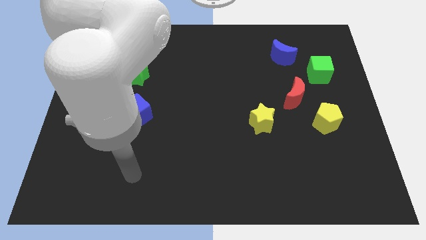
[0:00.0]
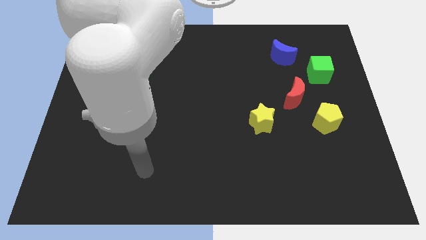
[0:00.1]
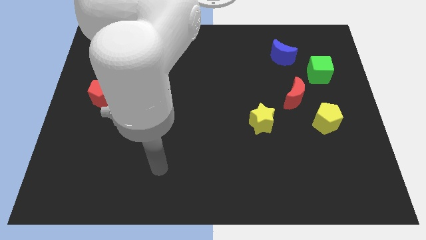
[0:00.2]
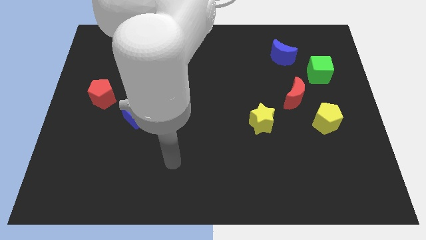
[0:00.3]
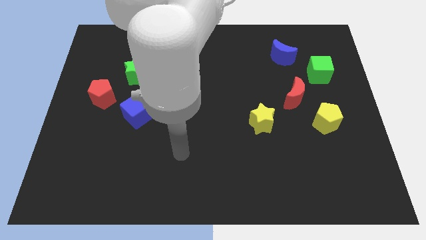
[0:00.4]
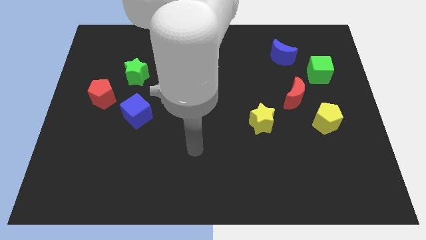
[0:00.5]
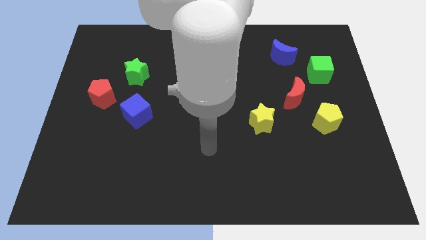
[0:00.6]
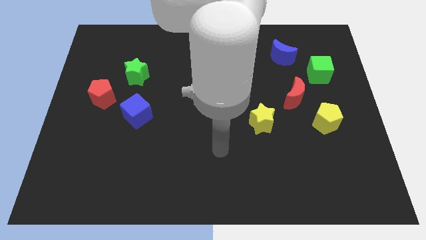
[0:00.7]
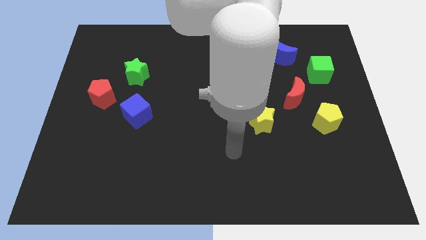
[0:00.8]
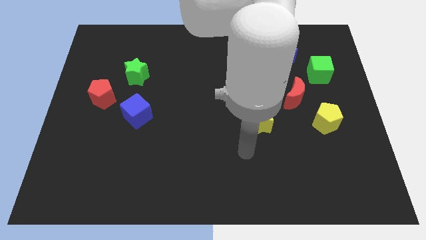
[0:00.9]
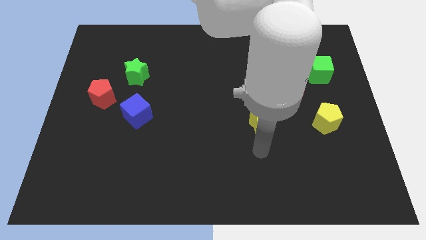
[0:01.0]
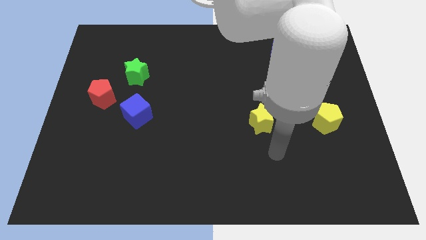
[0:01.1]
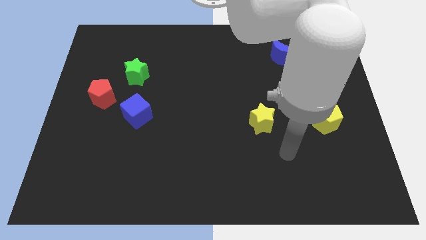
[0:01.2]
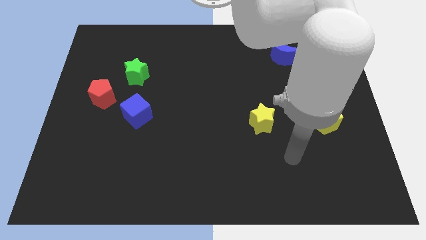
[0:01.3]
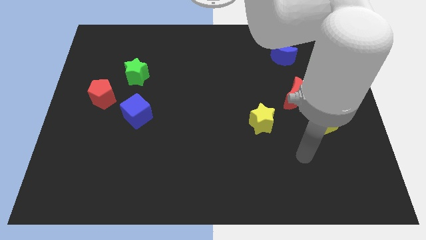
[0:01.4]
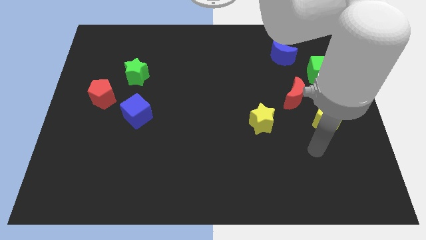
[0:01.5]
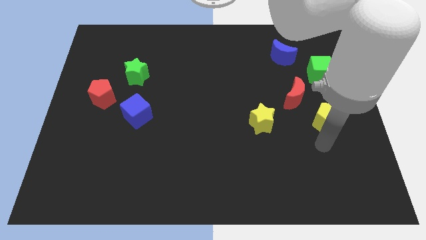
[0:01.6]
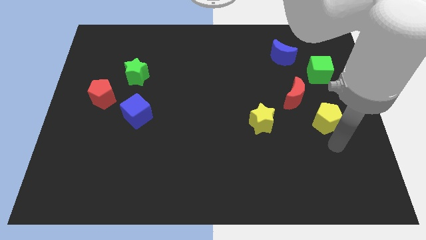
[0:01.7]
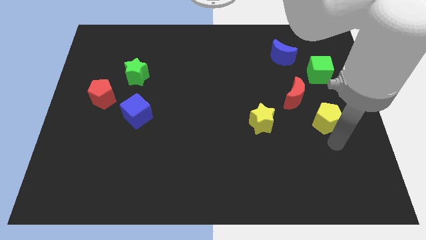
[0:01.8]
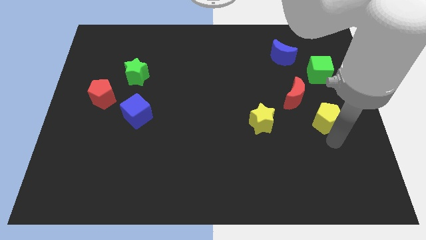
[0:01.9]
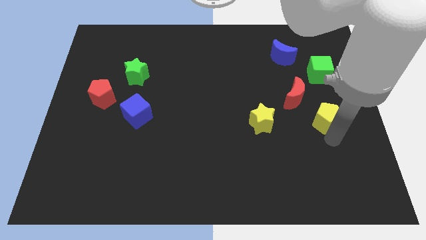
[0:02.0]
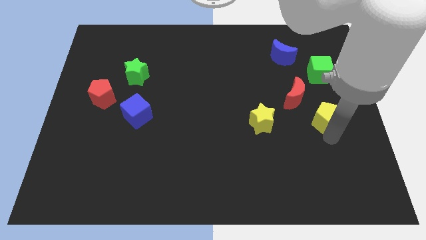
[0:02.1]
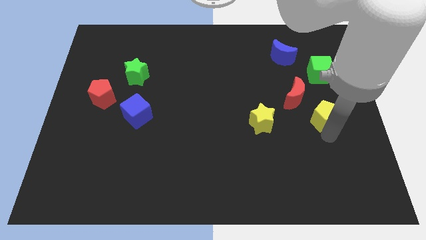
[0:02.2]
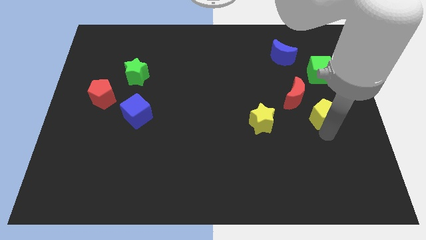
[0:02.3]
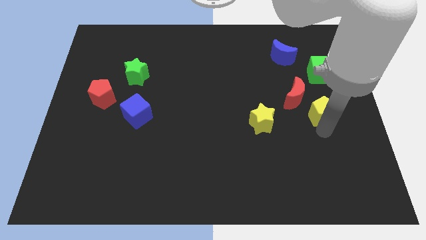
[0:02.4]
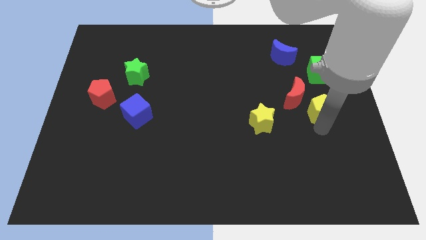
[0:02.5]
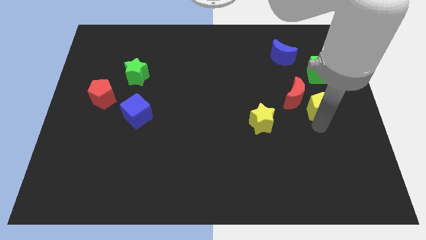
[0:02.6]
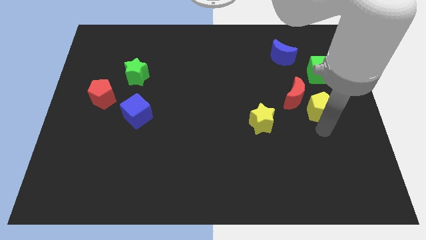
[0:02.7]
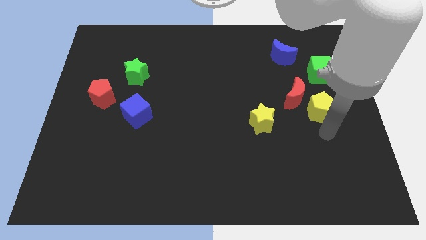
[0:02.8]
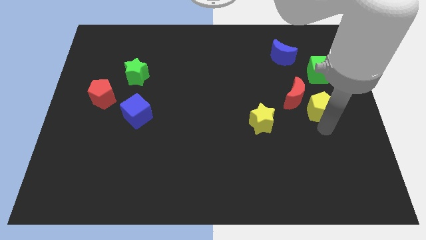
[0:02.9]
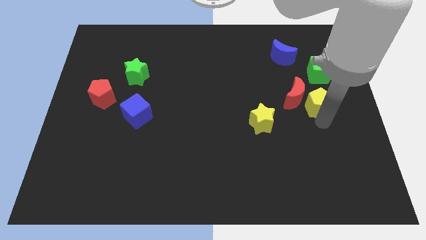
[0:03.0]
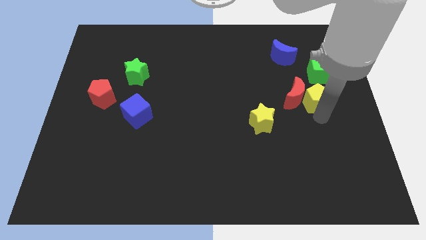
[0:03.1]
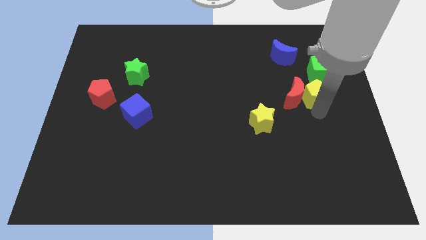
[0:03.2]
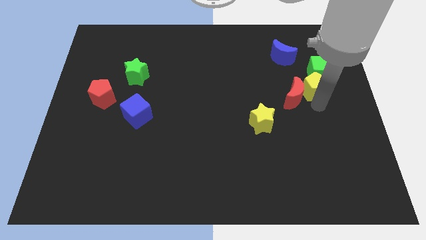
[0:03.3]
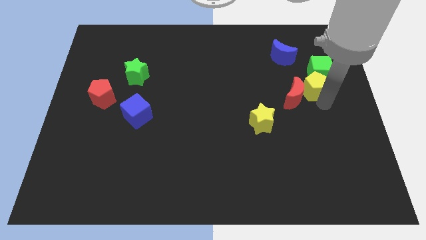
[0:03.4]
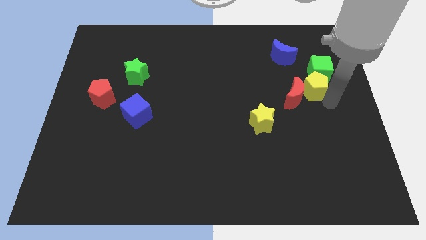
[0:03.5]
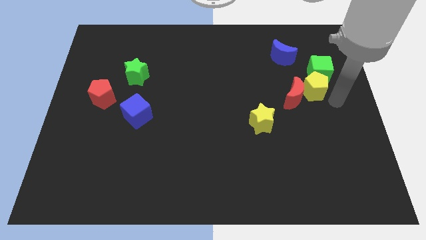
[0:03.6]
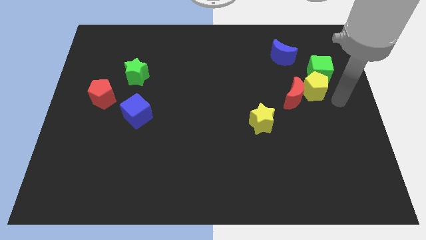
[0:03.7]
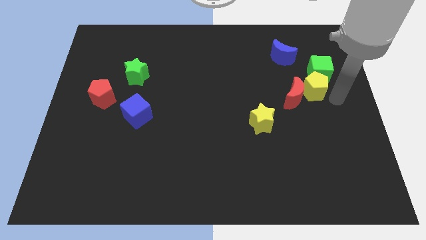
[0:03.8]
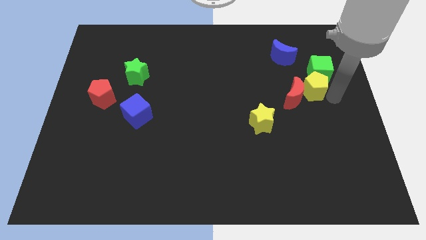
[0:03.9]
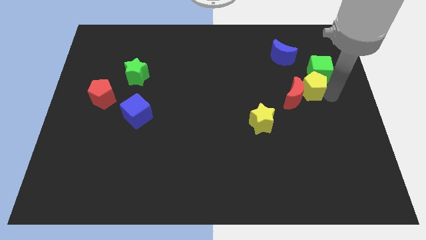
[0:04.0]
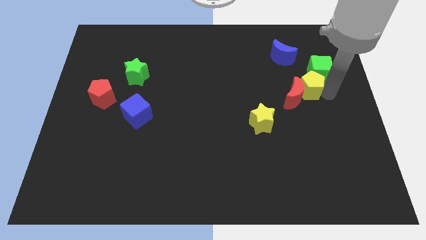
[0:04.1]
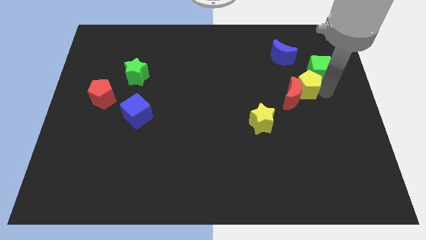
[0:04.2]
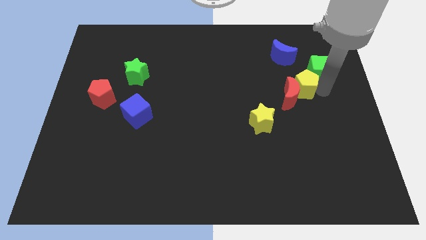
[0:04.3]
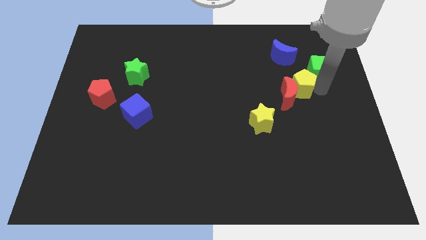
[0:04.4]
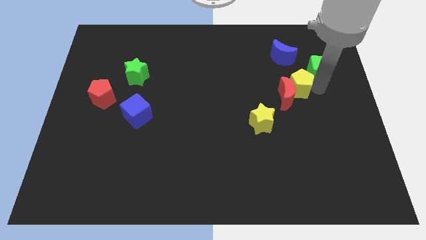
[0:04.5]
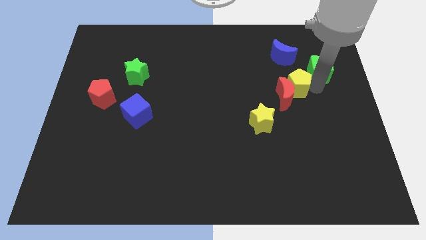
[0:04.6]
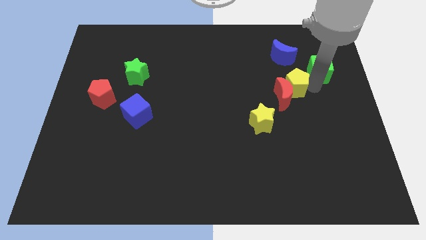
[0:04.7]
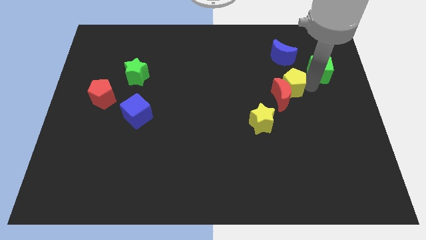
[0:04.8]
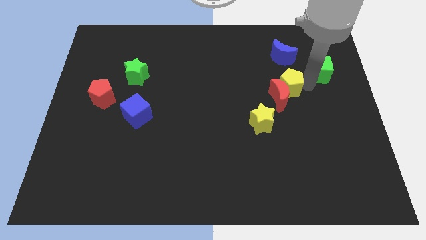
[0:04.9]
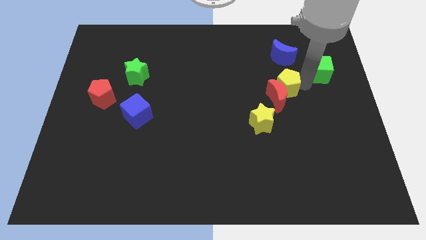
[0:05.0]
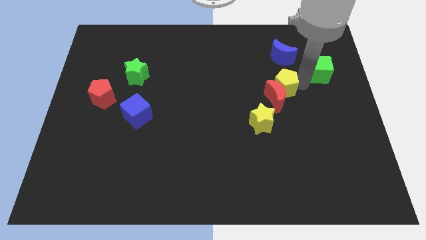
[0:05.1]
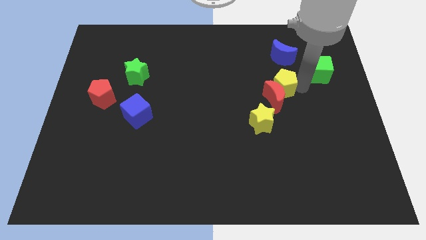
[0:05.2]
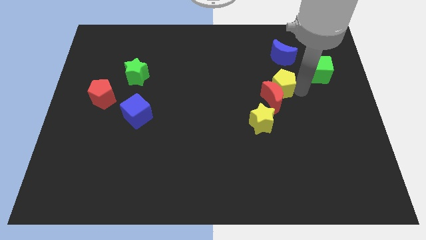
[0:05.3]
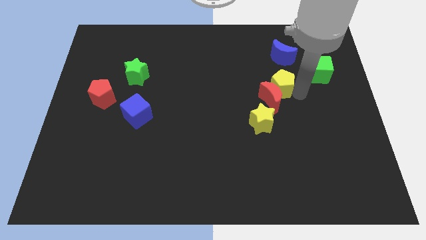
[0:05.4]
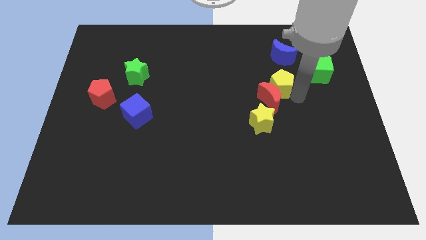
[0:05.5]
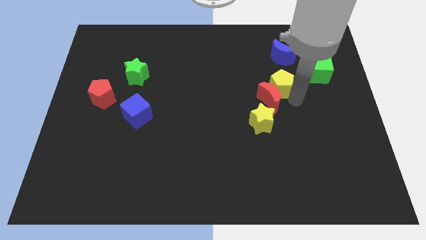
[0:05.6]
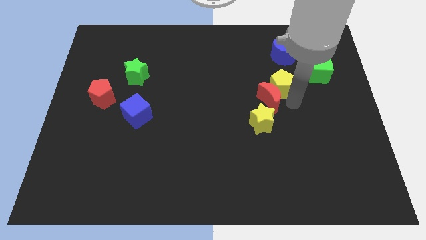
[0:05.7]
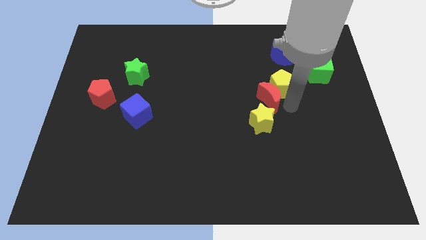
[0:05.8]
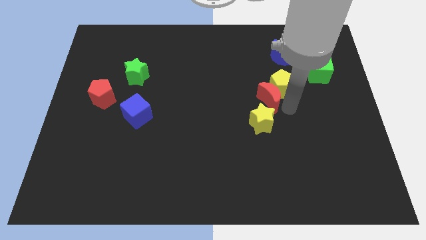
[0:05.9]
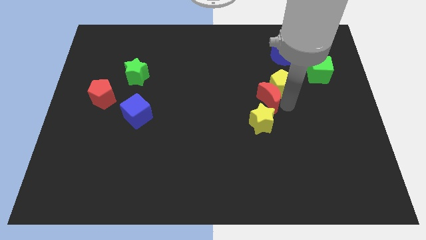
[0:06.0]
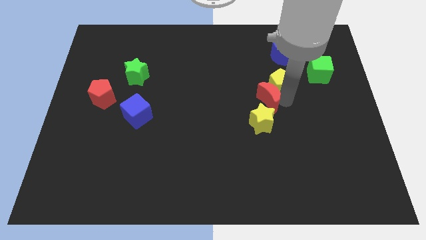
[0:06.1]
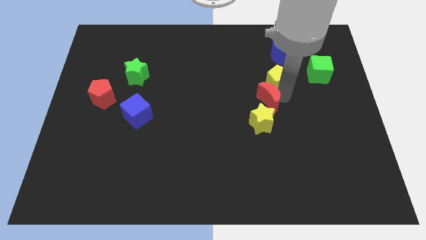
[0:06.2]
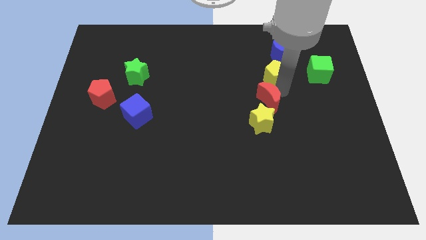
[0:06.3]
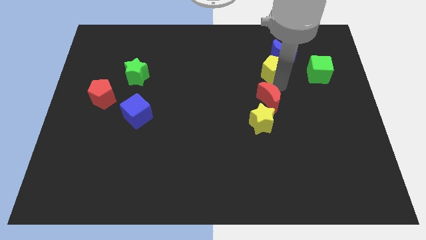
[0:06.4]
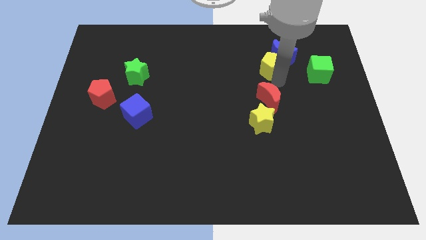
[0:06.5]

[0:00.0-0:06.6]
slide the yellow pentagon to the left side of the blue moon
